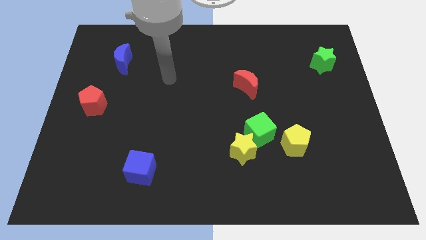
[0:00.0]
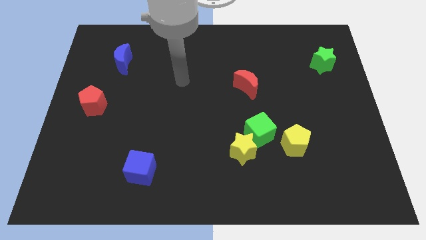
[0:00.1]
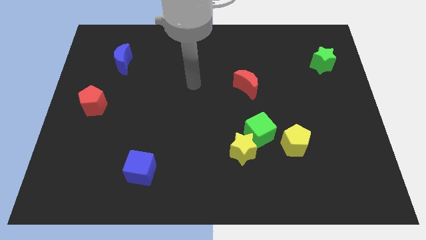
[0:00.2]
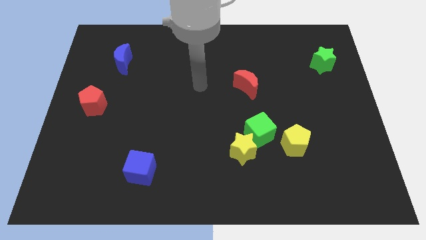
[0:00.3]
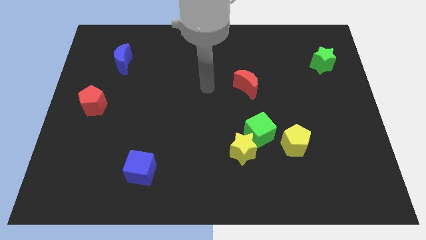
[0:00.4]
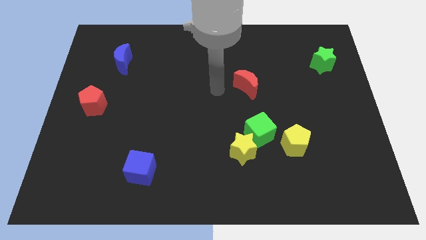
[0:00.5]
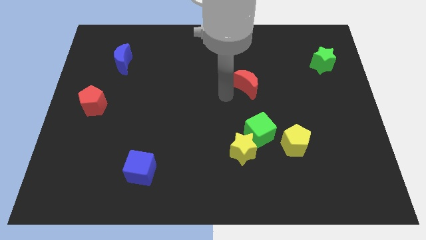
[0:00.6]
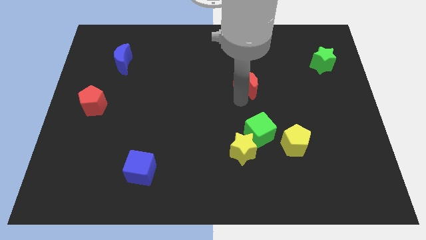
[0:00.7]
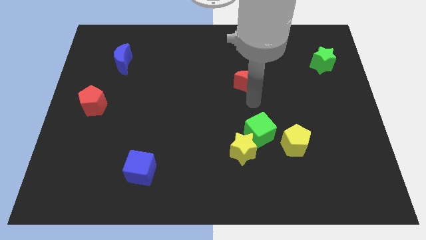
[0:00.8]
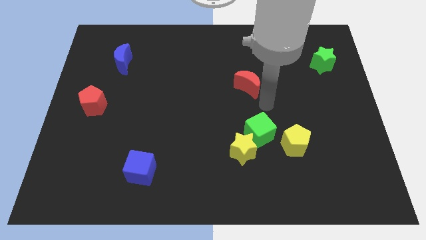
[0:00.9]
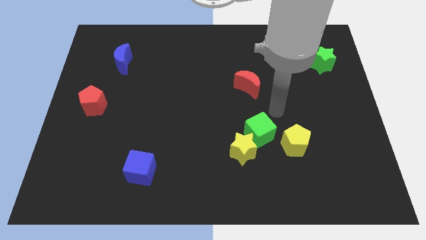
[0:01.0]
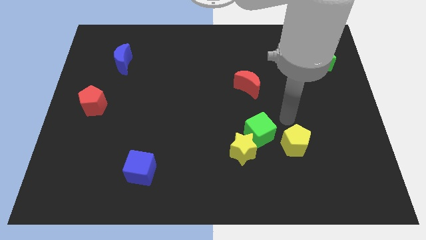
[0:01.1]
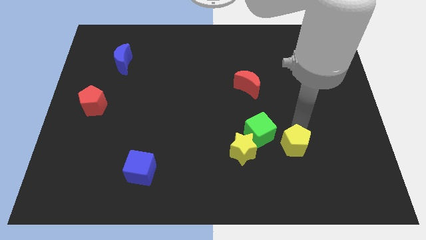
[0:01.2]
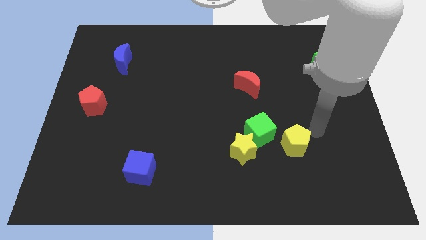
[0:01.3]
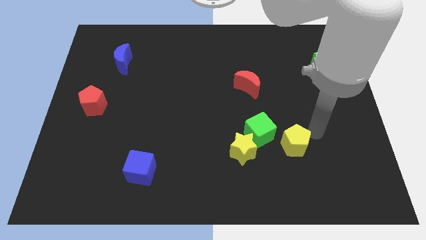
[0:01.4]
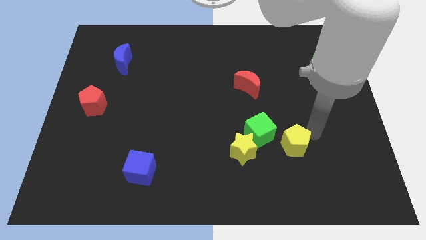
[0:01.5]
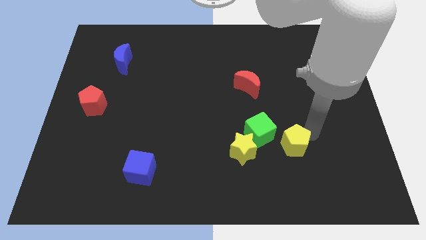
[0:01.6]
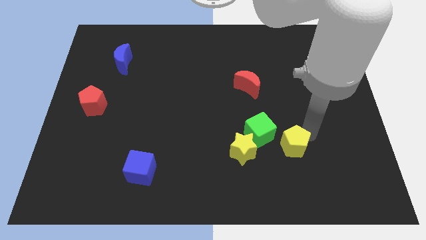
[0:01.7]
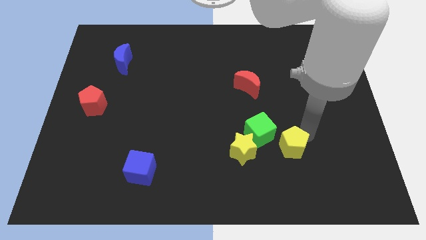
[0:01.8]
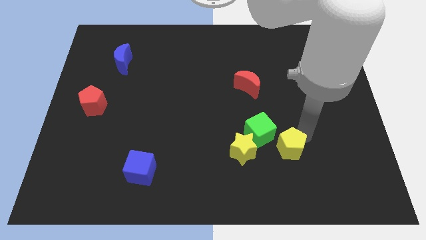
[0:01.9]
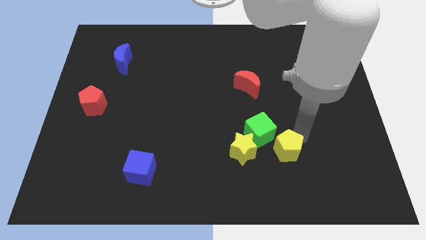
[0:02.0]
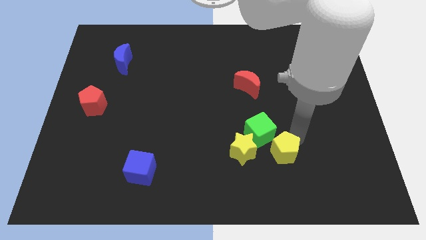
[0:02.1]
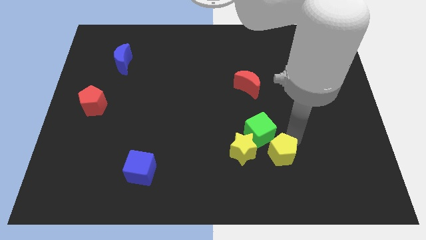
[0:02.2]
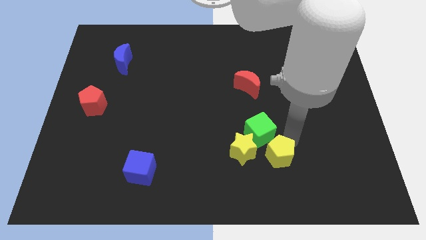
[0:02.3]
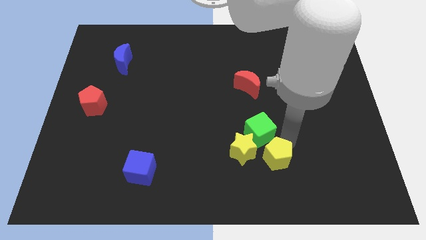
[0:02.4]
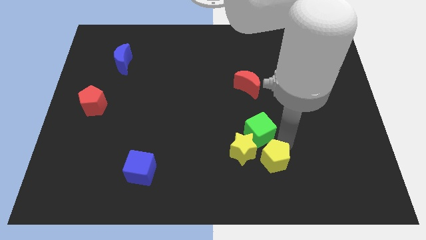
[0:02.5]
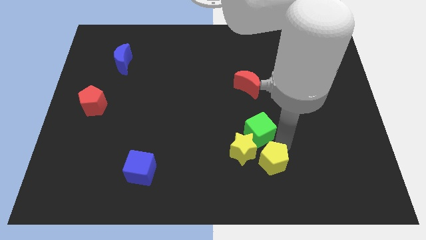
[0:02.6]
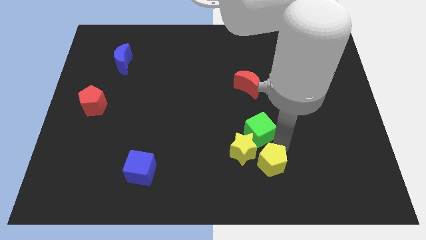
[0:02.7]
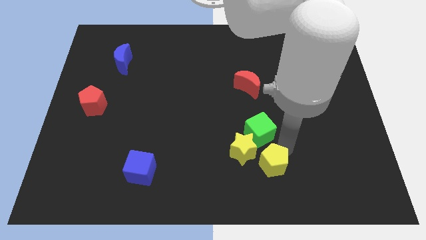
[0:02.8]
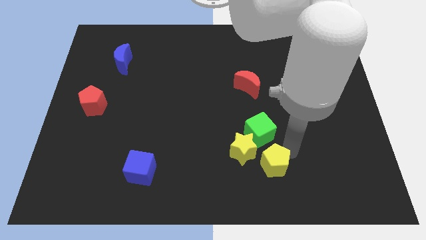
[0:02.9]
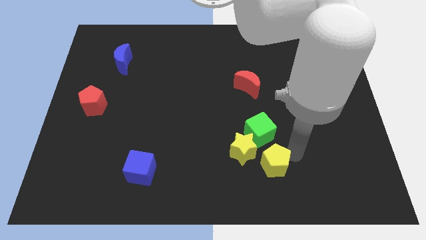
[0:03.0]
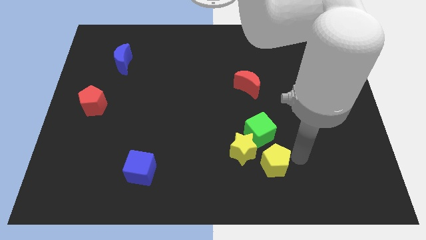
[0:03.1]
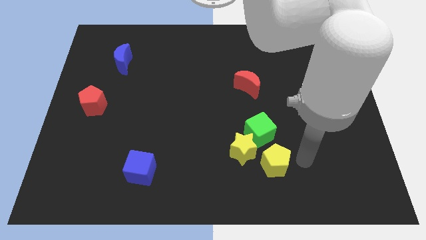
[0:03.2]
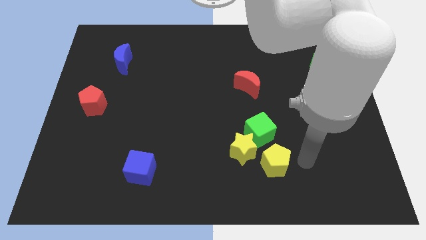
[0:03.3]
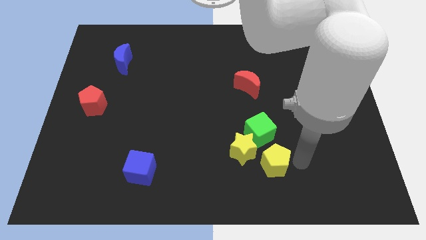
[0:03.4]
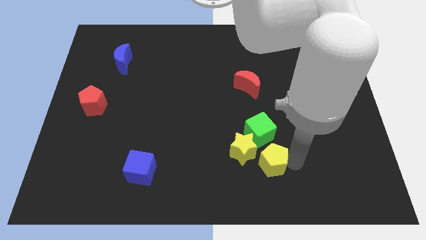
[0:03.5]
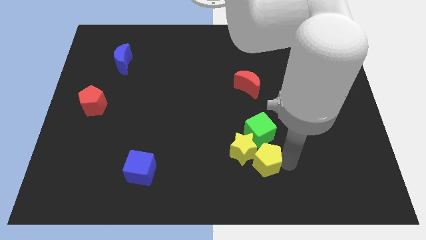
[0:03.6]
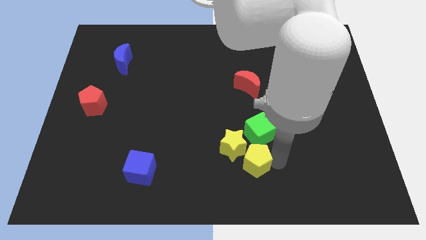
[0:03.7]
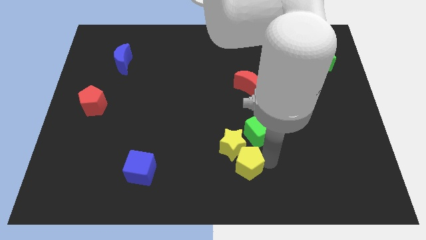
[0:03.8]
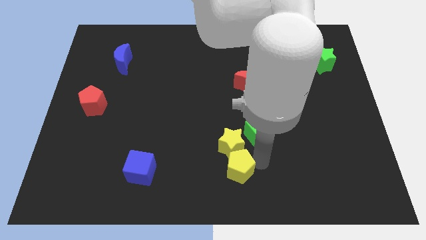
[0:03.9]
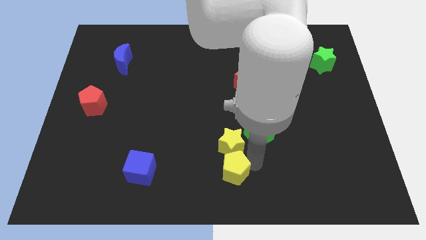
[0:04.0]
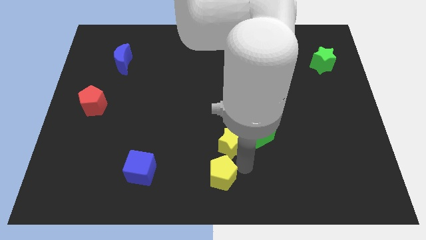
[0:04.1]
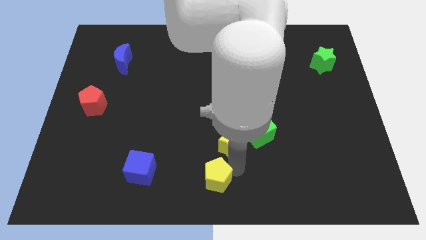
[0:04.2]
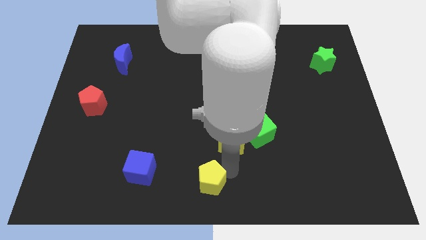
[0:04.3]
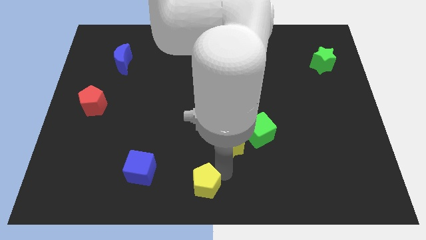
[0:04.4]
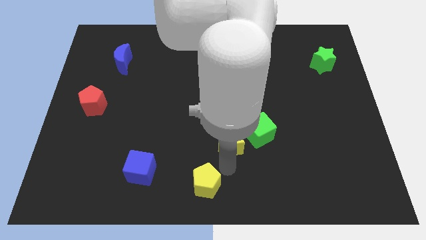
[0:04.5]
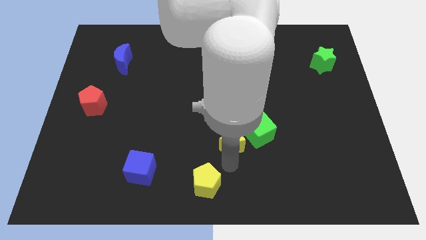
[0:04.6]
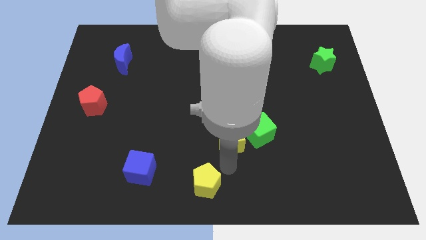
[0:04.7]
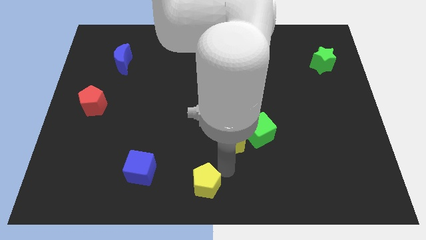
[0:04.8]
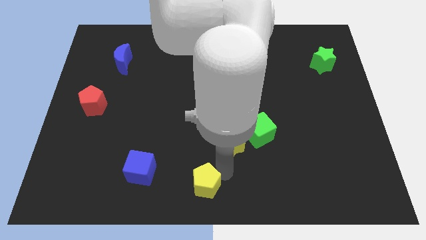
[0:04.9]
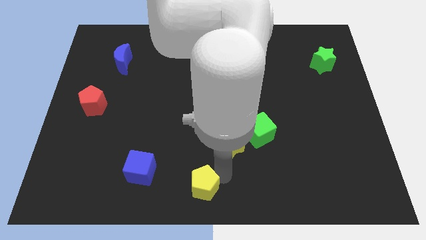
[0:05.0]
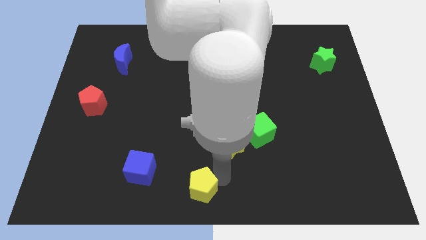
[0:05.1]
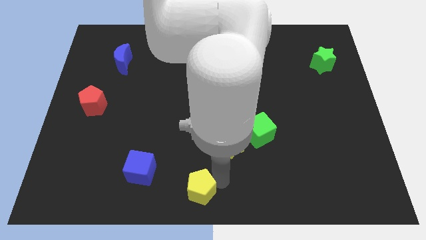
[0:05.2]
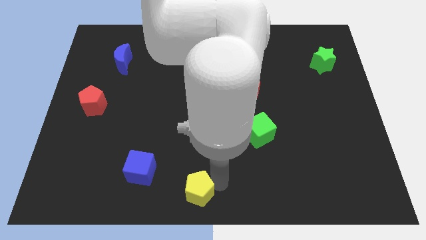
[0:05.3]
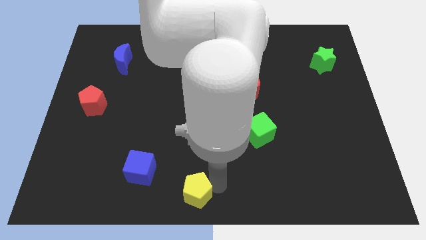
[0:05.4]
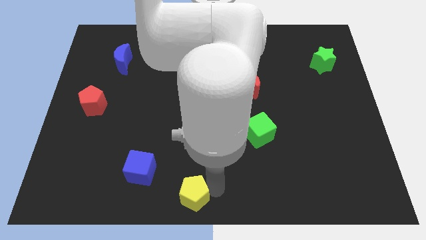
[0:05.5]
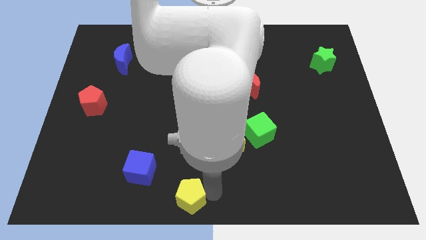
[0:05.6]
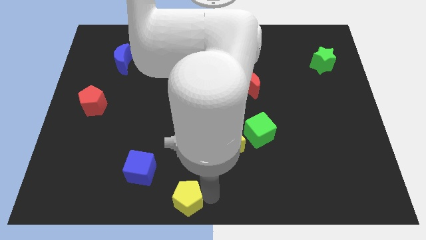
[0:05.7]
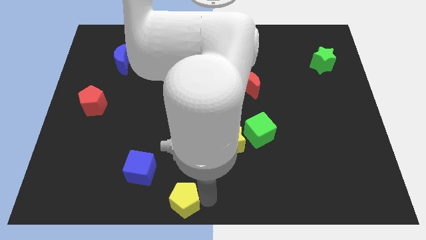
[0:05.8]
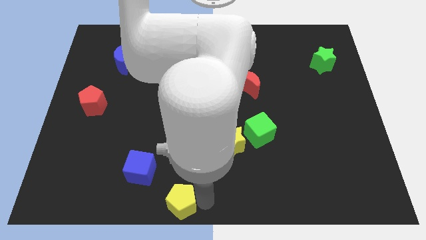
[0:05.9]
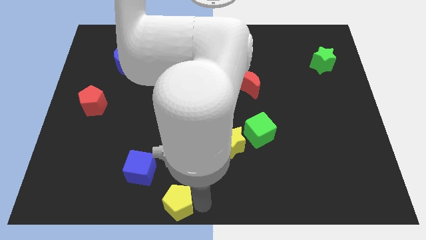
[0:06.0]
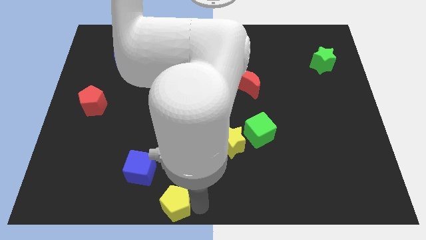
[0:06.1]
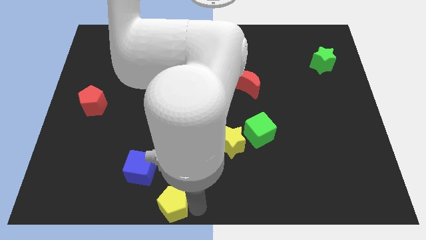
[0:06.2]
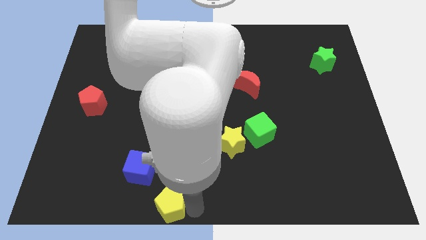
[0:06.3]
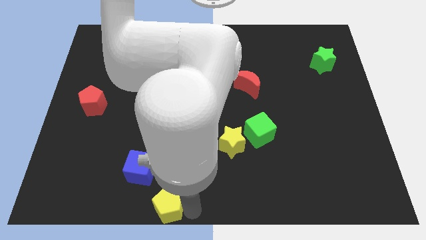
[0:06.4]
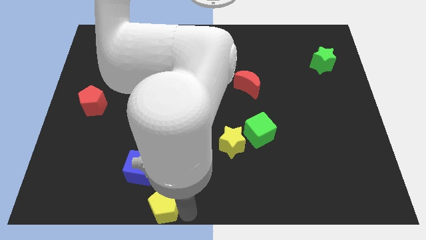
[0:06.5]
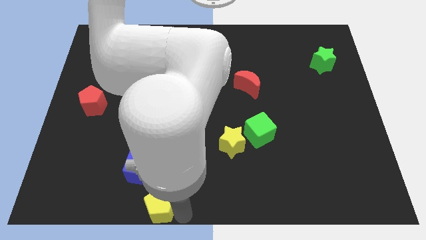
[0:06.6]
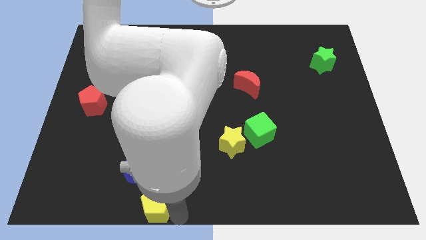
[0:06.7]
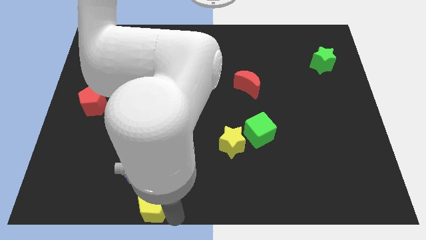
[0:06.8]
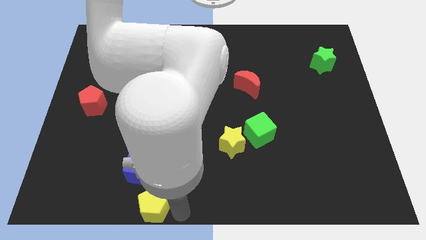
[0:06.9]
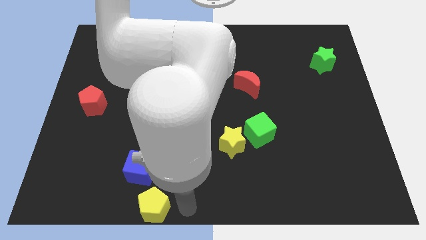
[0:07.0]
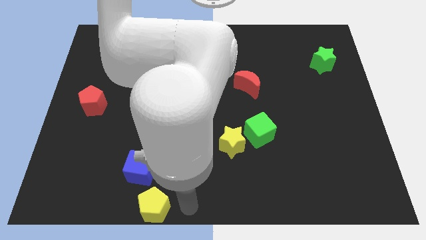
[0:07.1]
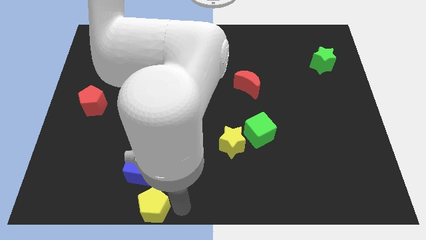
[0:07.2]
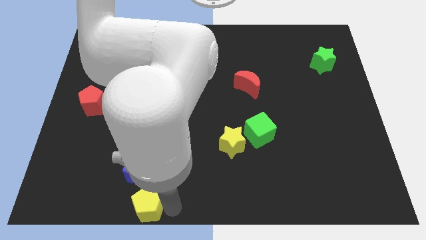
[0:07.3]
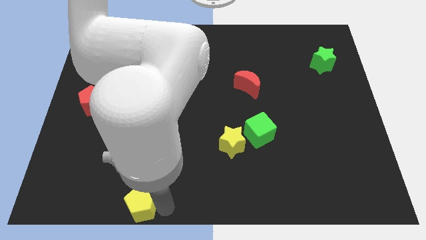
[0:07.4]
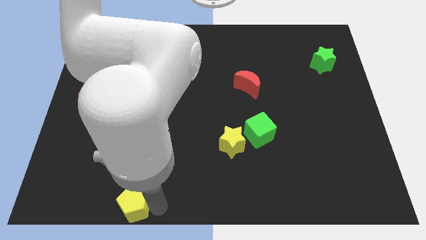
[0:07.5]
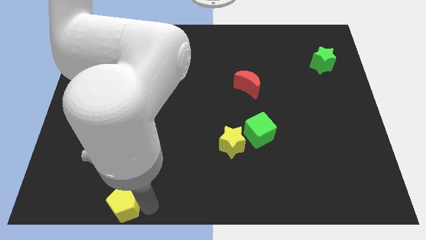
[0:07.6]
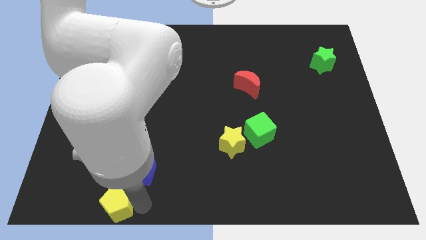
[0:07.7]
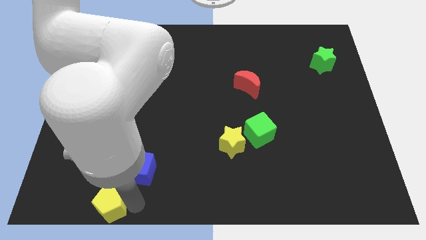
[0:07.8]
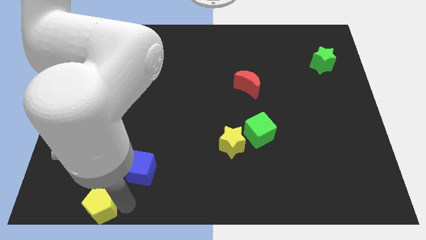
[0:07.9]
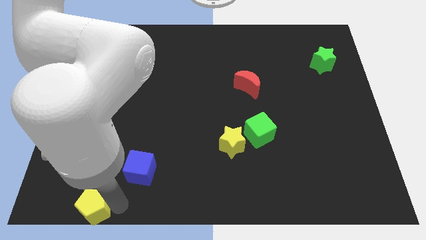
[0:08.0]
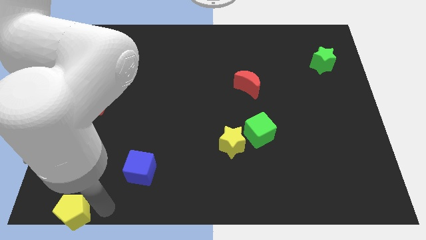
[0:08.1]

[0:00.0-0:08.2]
push the yellow pentagon to the bottom left
